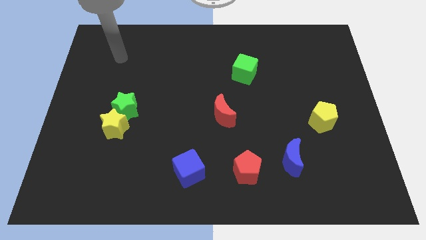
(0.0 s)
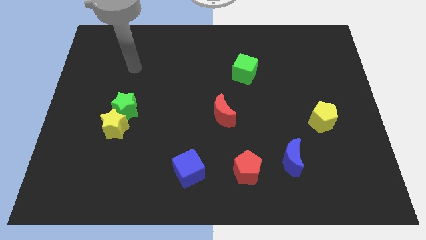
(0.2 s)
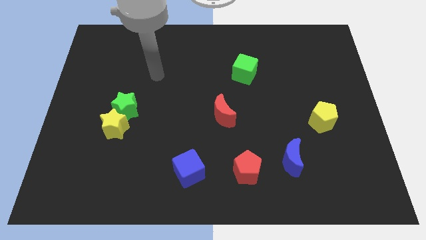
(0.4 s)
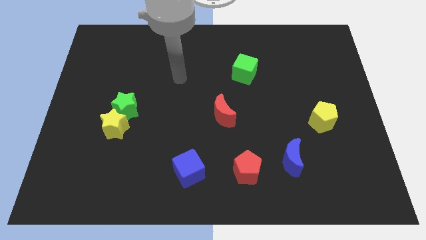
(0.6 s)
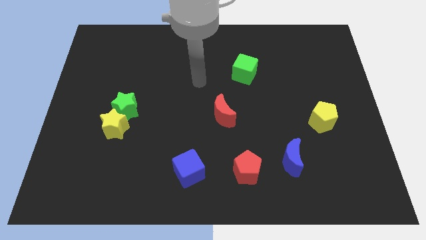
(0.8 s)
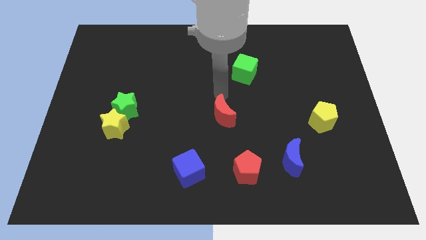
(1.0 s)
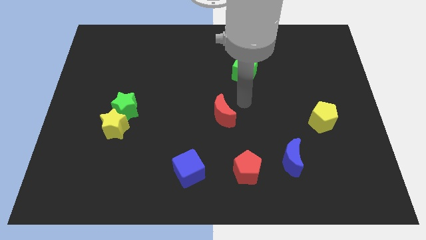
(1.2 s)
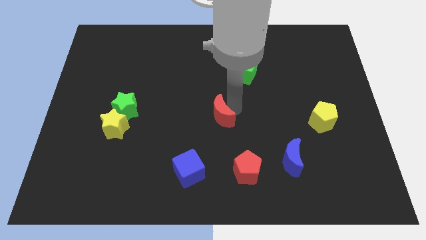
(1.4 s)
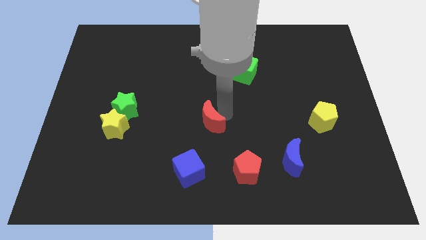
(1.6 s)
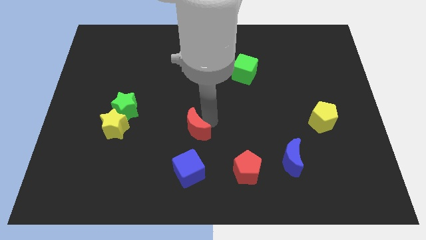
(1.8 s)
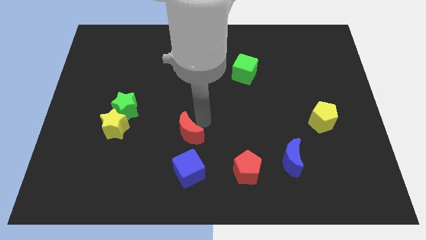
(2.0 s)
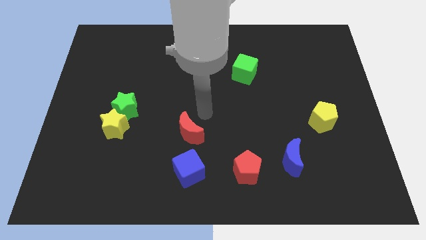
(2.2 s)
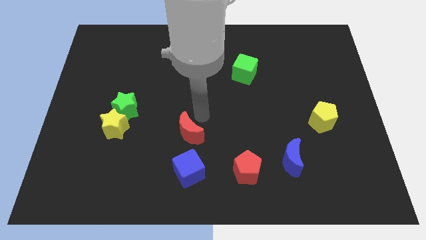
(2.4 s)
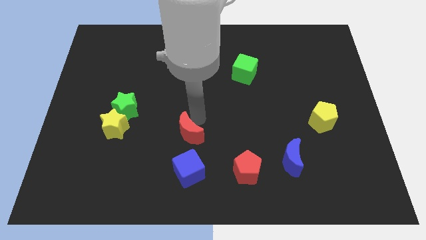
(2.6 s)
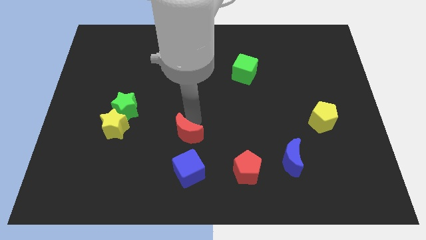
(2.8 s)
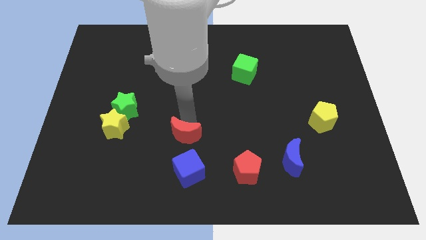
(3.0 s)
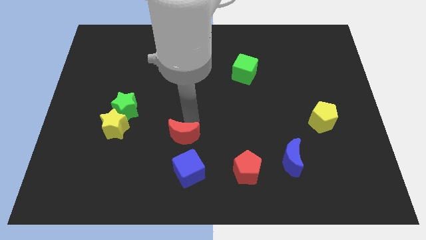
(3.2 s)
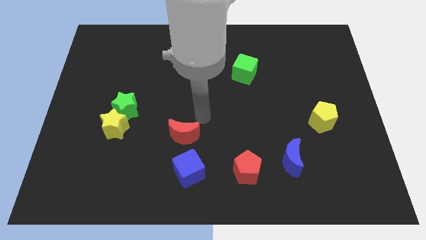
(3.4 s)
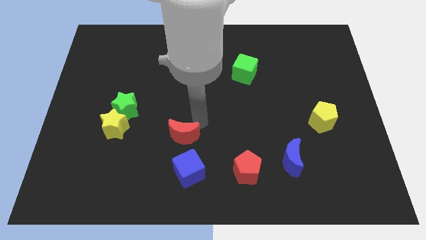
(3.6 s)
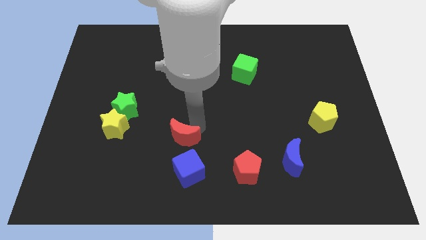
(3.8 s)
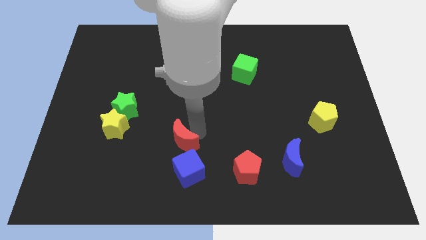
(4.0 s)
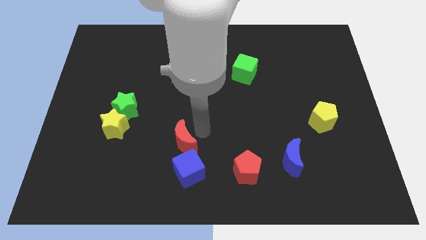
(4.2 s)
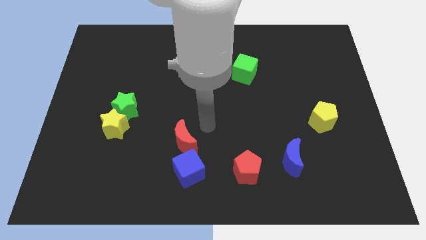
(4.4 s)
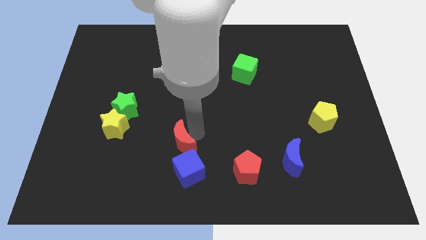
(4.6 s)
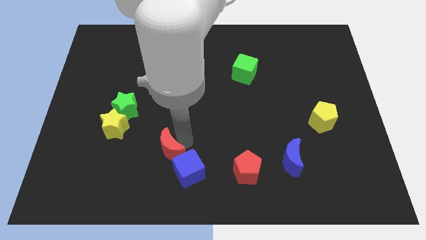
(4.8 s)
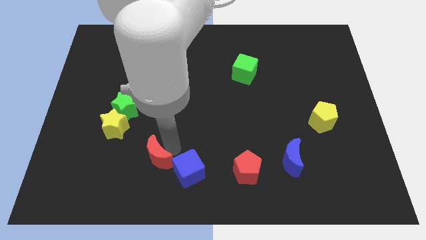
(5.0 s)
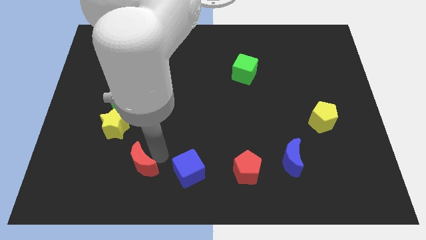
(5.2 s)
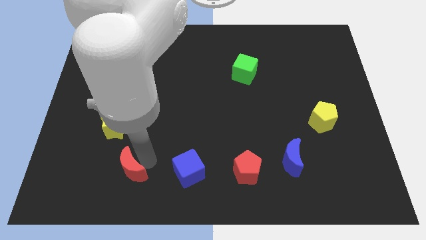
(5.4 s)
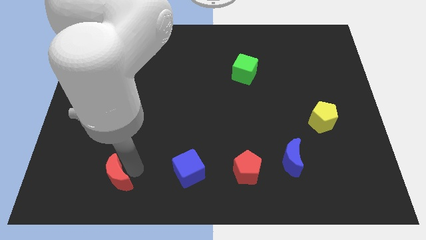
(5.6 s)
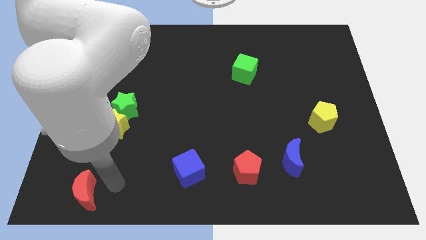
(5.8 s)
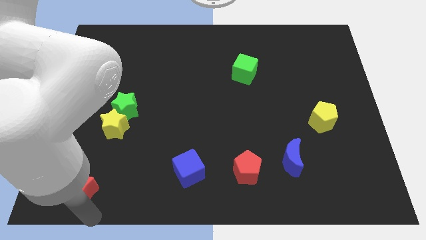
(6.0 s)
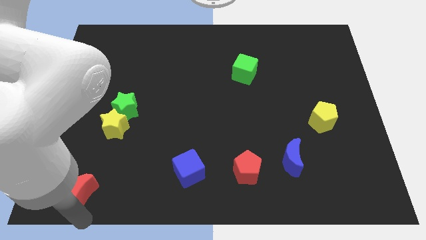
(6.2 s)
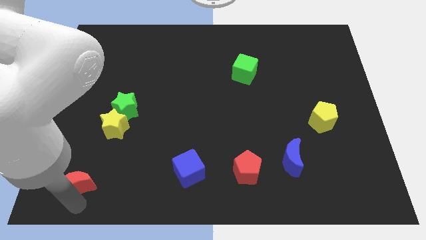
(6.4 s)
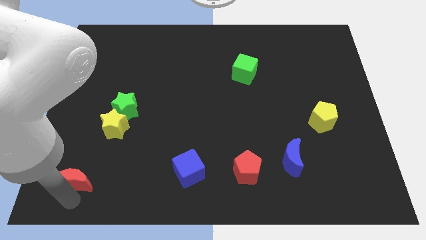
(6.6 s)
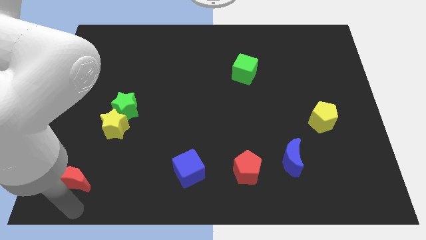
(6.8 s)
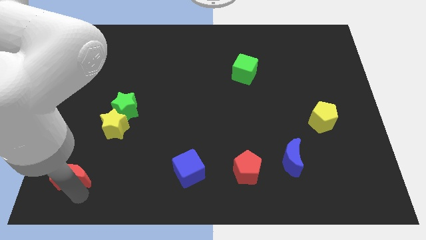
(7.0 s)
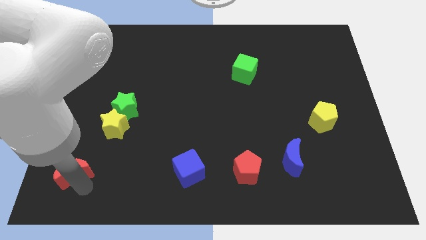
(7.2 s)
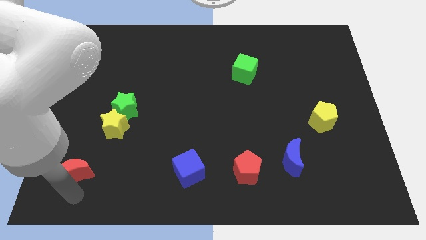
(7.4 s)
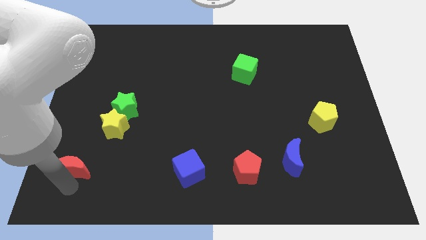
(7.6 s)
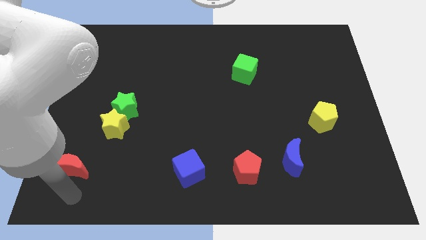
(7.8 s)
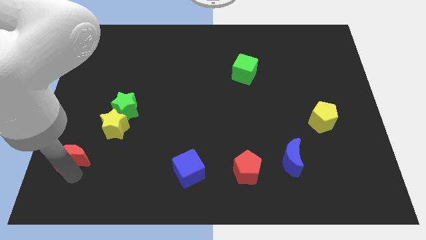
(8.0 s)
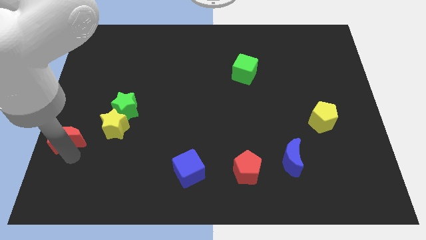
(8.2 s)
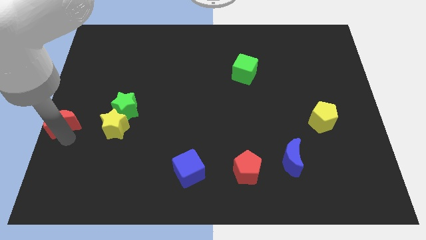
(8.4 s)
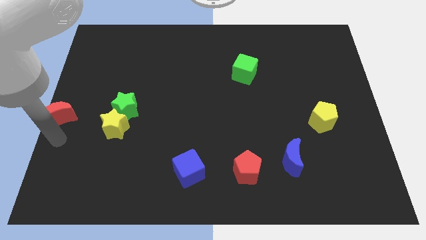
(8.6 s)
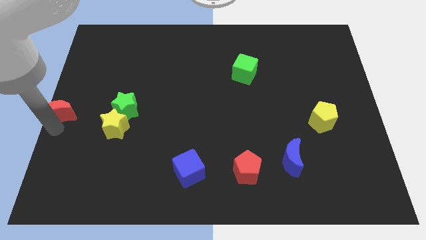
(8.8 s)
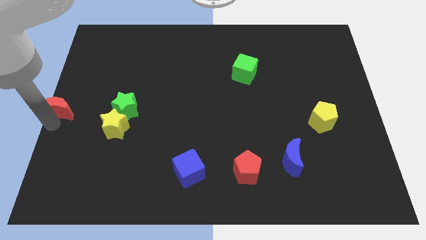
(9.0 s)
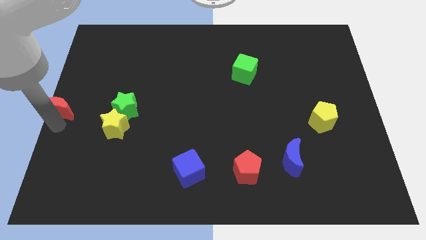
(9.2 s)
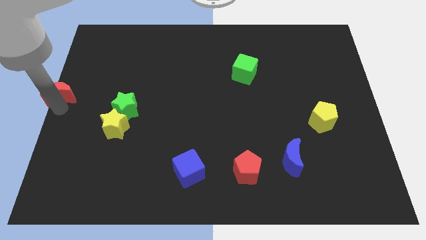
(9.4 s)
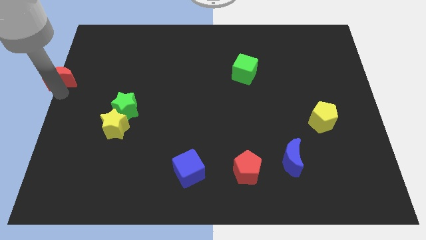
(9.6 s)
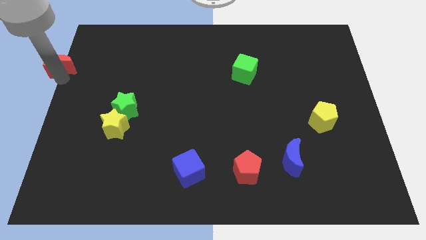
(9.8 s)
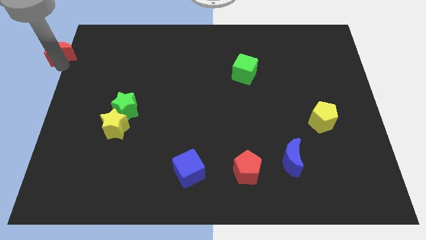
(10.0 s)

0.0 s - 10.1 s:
move the red moon to the top left

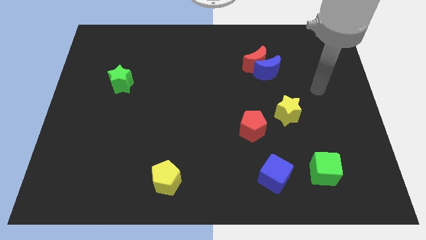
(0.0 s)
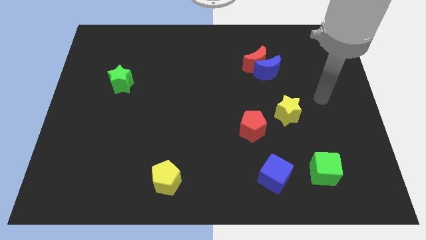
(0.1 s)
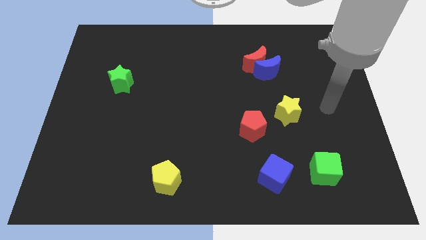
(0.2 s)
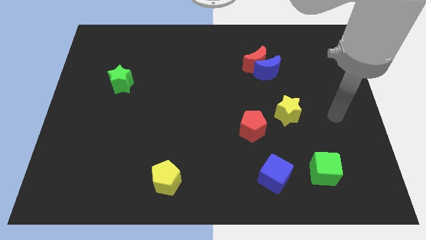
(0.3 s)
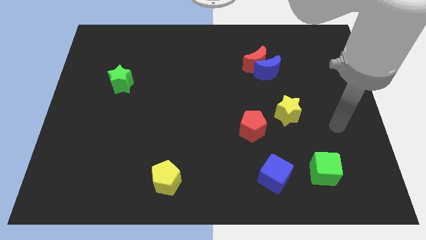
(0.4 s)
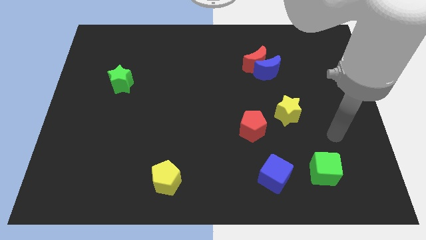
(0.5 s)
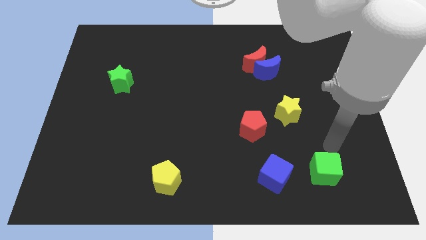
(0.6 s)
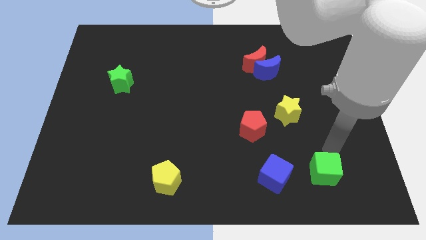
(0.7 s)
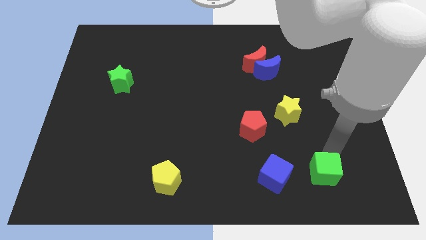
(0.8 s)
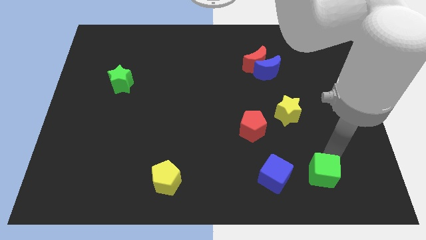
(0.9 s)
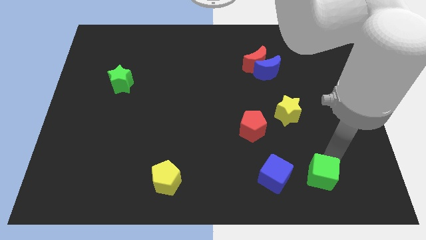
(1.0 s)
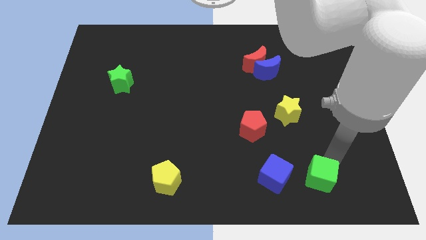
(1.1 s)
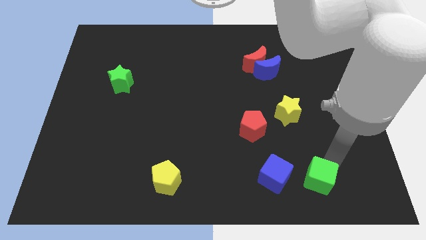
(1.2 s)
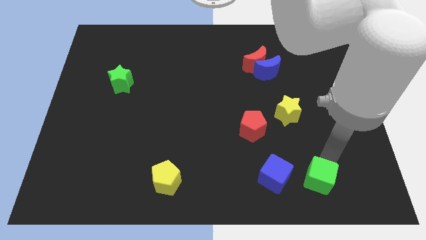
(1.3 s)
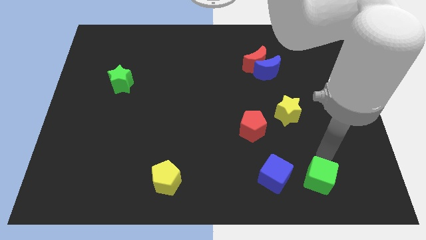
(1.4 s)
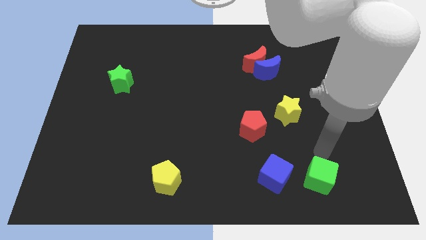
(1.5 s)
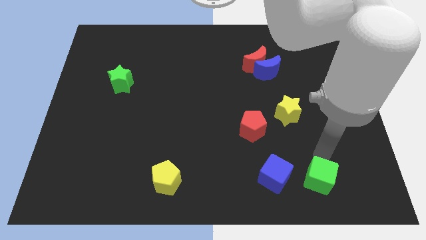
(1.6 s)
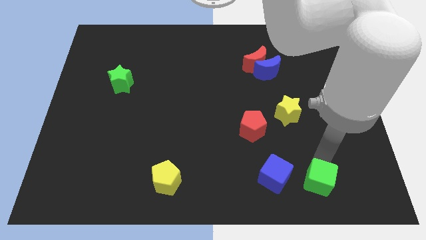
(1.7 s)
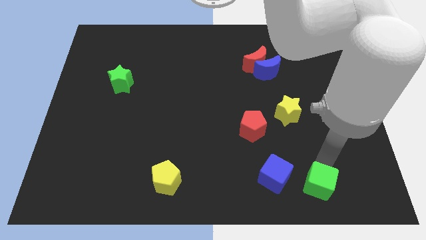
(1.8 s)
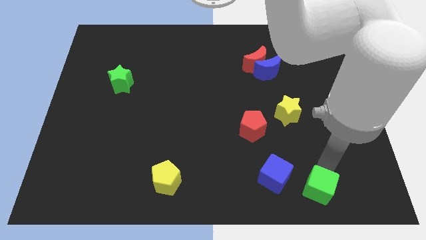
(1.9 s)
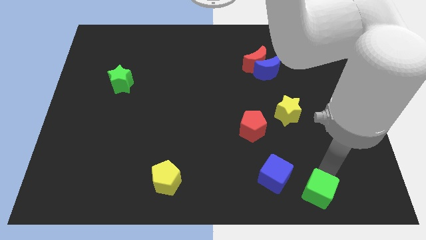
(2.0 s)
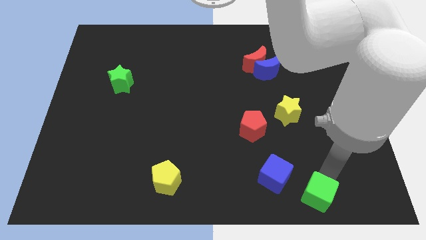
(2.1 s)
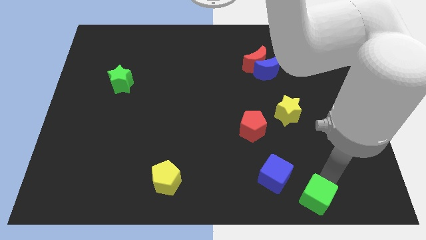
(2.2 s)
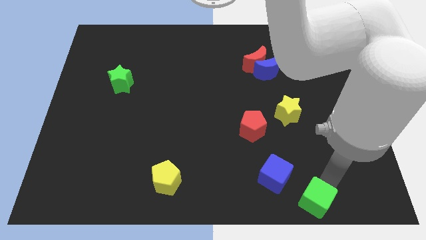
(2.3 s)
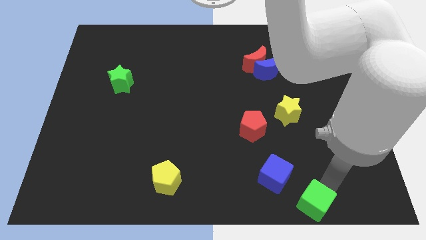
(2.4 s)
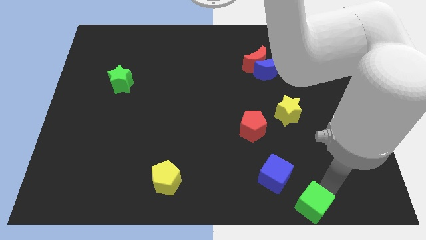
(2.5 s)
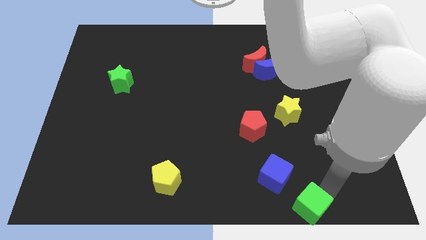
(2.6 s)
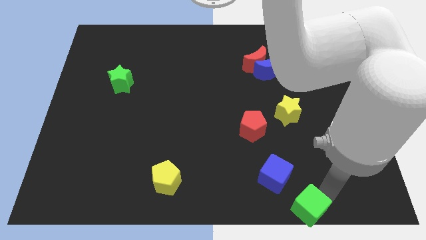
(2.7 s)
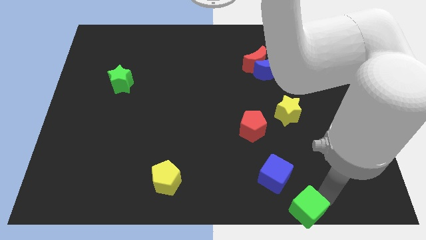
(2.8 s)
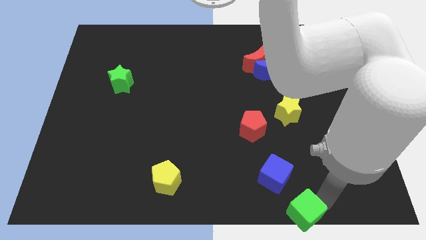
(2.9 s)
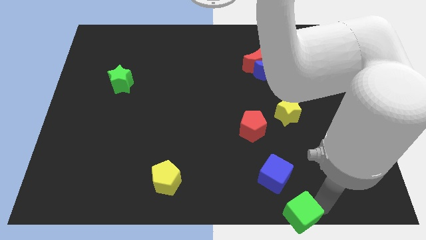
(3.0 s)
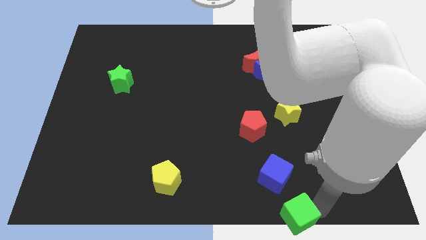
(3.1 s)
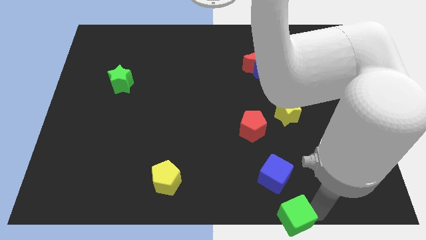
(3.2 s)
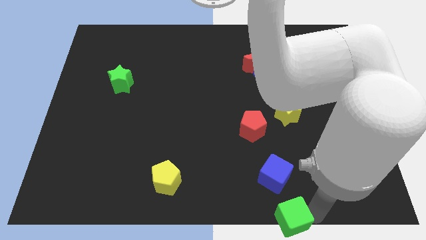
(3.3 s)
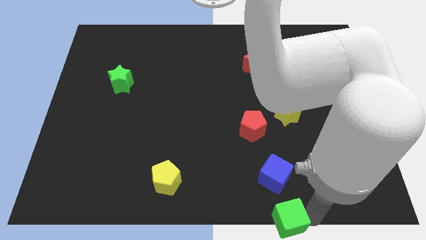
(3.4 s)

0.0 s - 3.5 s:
move the green cube to the bottom side
